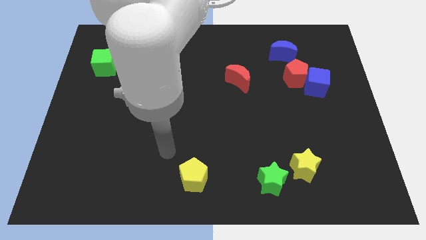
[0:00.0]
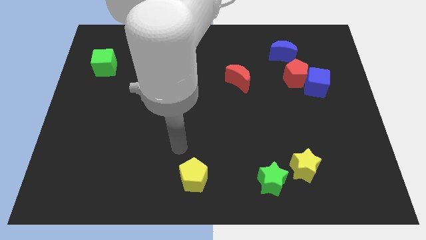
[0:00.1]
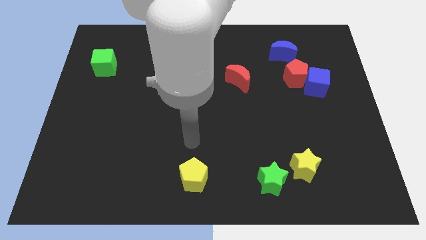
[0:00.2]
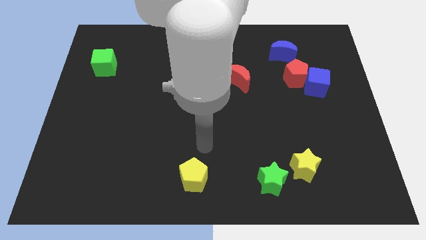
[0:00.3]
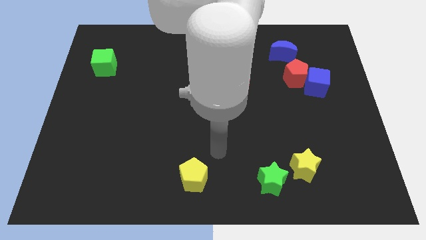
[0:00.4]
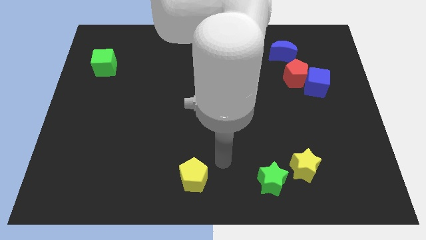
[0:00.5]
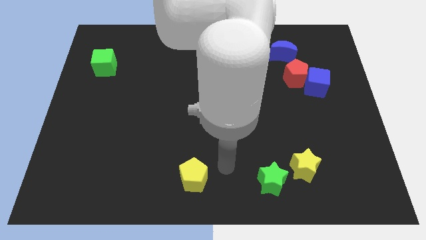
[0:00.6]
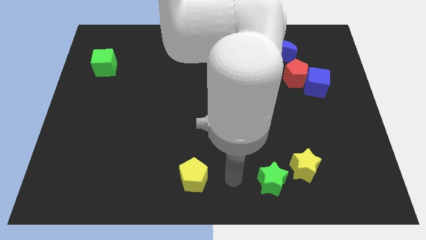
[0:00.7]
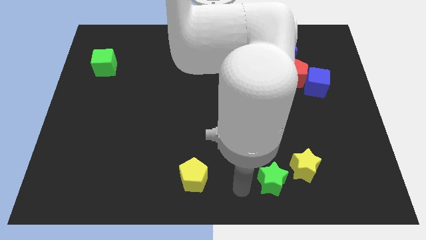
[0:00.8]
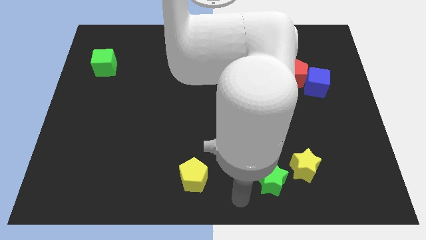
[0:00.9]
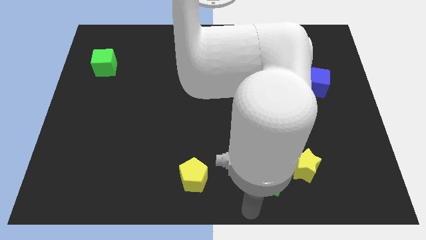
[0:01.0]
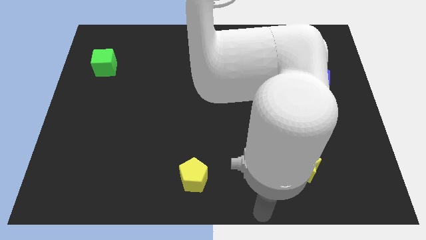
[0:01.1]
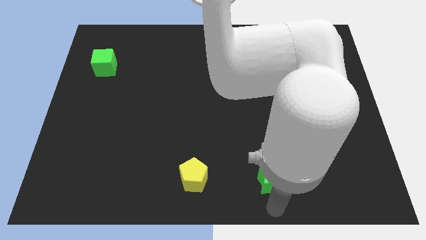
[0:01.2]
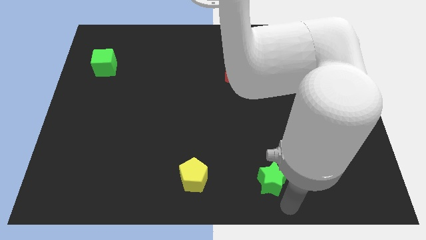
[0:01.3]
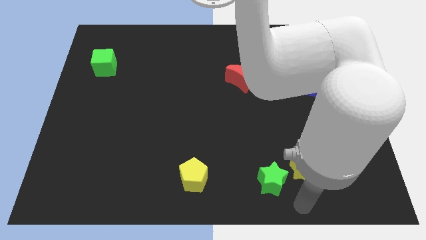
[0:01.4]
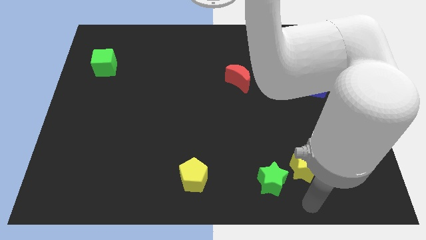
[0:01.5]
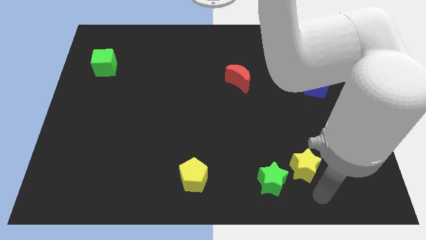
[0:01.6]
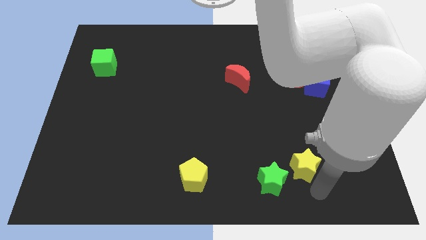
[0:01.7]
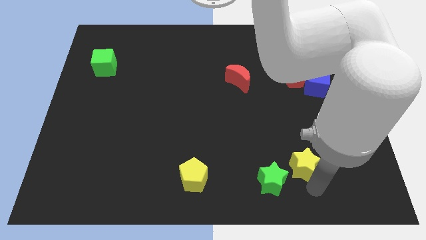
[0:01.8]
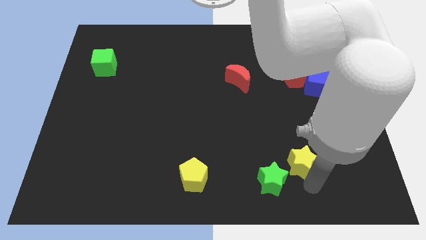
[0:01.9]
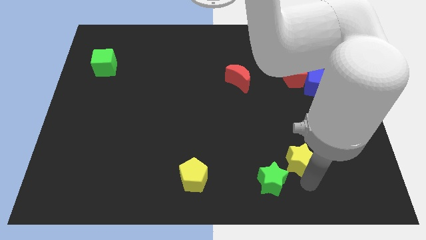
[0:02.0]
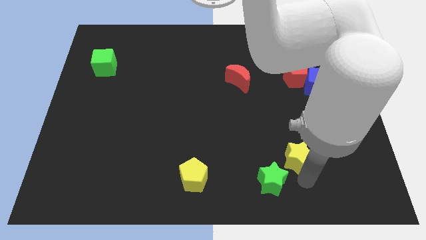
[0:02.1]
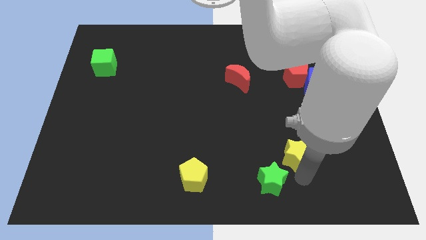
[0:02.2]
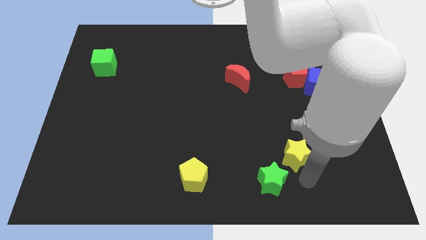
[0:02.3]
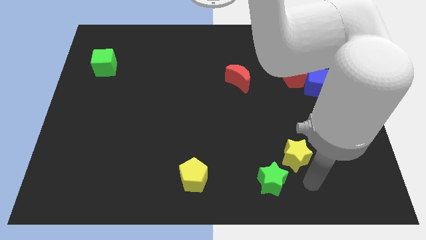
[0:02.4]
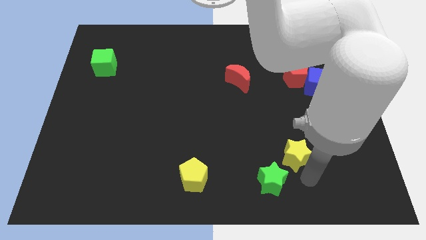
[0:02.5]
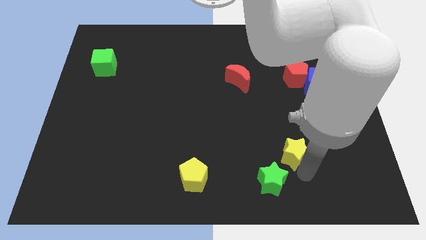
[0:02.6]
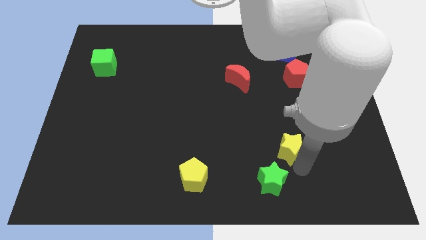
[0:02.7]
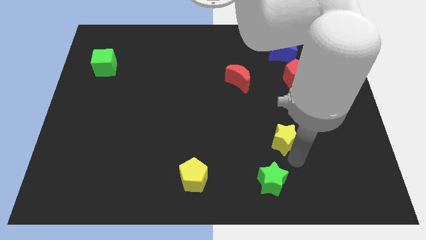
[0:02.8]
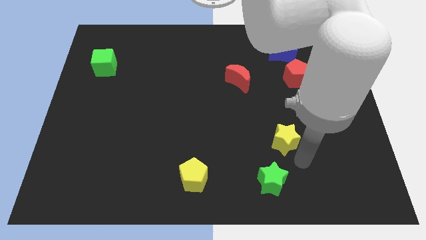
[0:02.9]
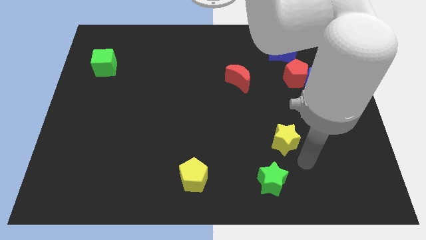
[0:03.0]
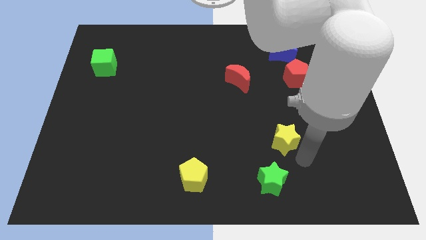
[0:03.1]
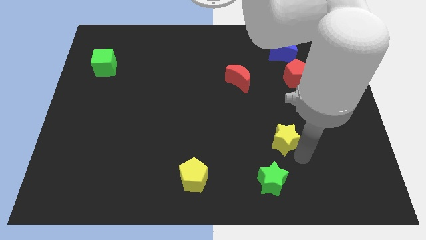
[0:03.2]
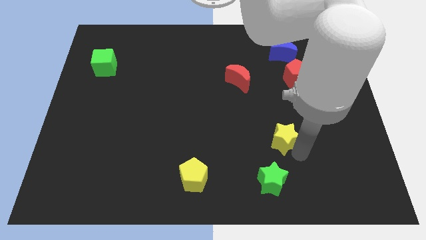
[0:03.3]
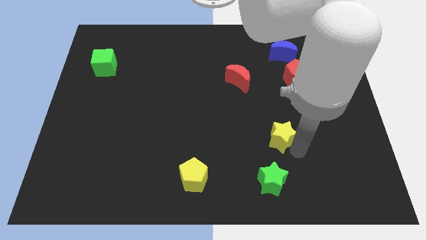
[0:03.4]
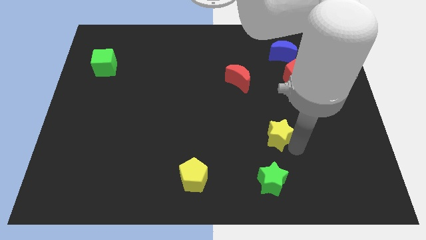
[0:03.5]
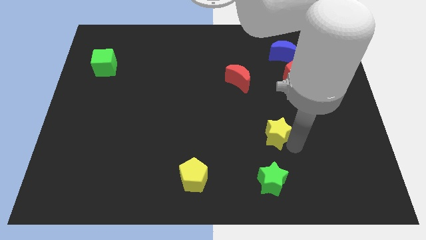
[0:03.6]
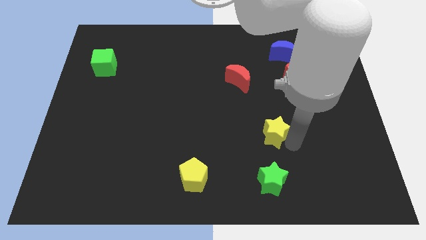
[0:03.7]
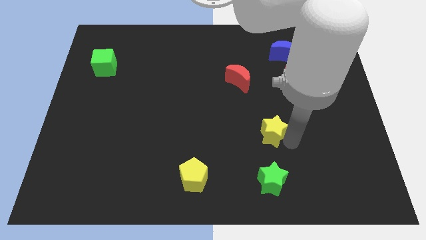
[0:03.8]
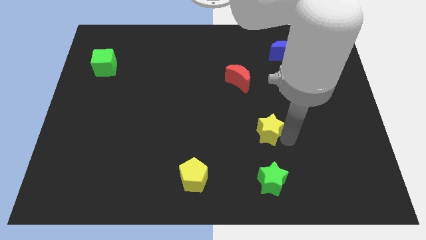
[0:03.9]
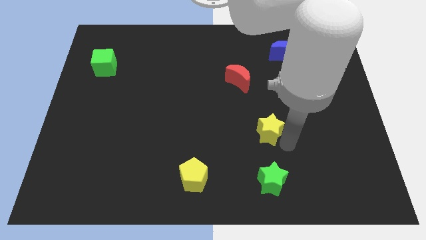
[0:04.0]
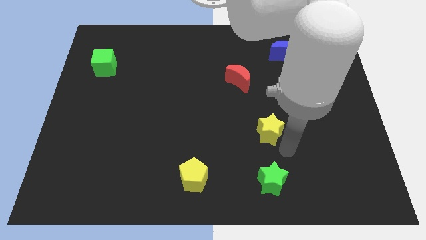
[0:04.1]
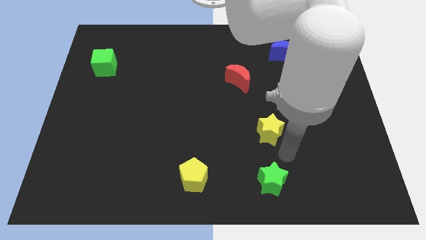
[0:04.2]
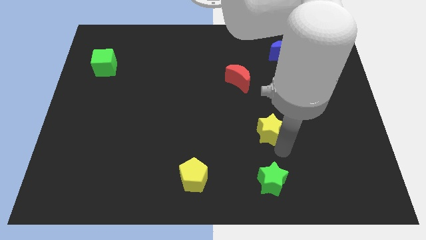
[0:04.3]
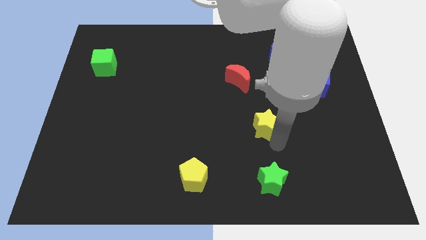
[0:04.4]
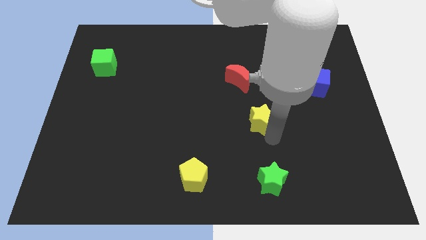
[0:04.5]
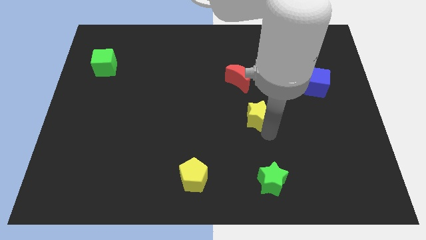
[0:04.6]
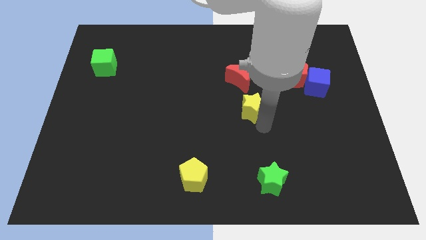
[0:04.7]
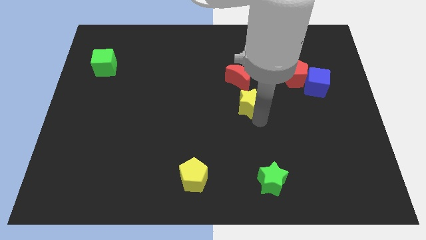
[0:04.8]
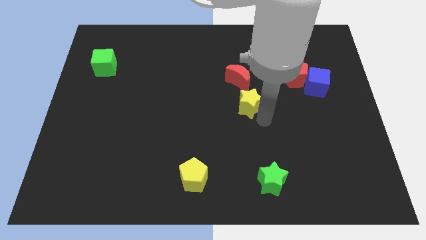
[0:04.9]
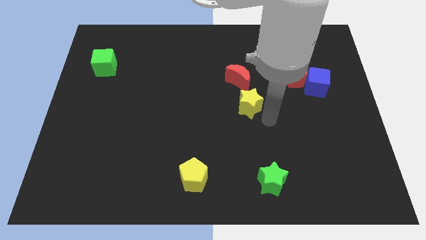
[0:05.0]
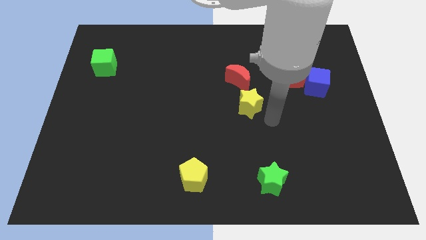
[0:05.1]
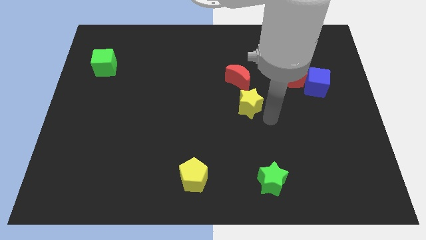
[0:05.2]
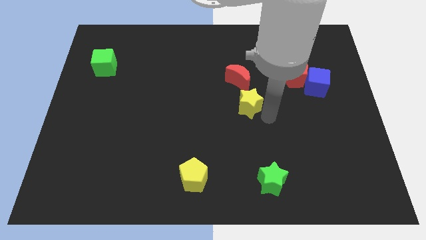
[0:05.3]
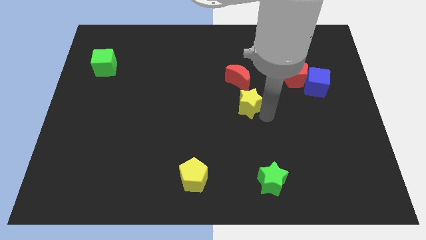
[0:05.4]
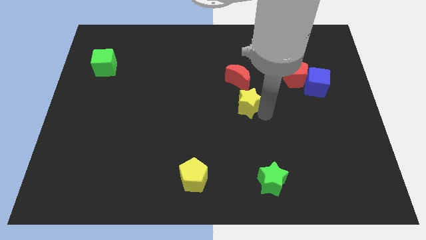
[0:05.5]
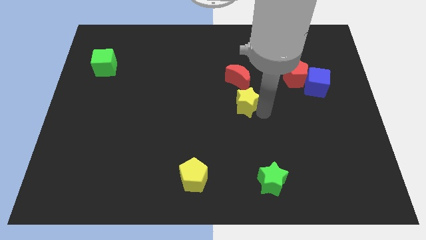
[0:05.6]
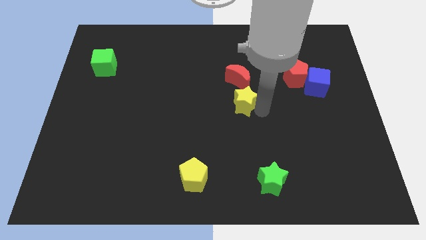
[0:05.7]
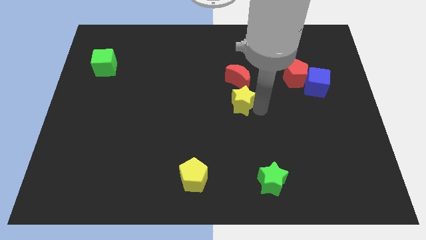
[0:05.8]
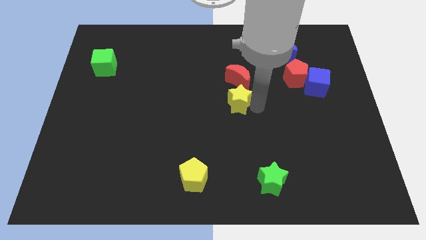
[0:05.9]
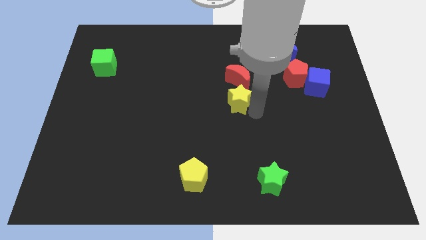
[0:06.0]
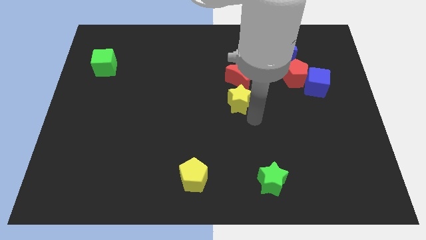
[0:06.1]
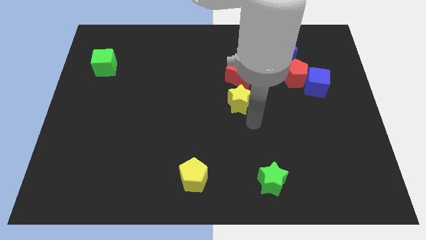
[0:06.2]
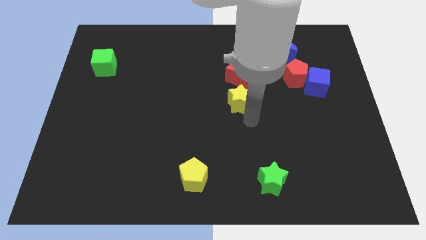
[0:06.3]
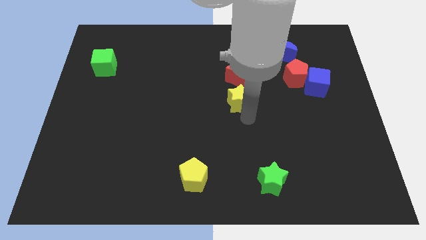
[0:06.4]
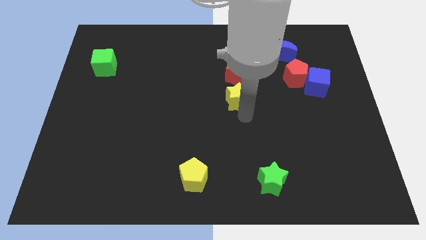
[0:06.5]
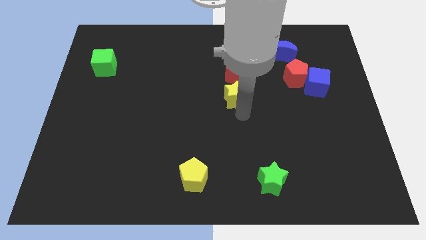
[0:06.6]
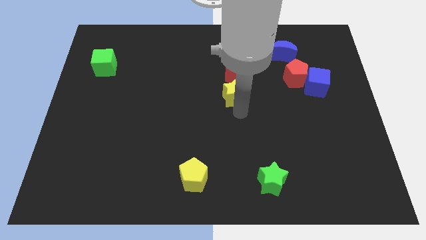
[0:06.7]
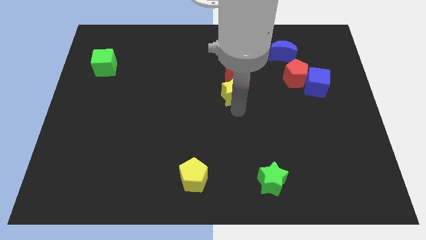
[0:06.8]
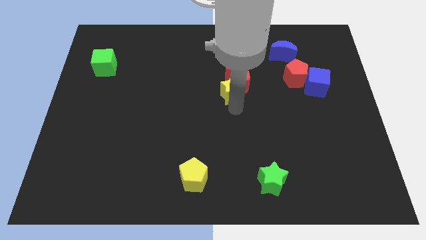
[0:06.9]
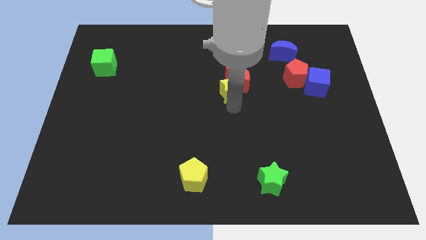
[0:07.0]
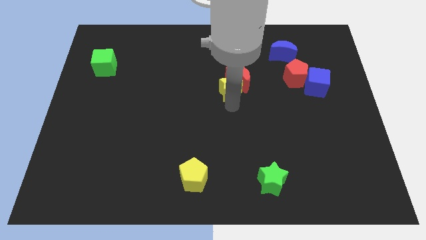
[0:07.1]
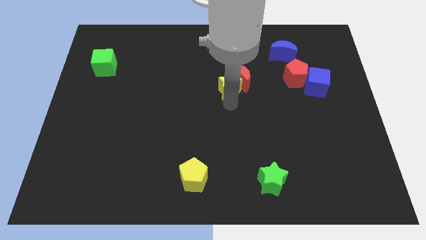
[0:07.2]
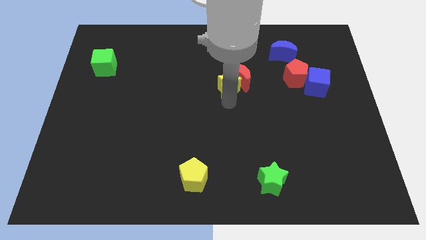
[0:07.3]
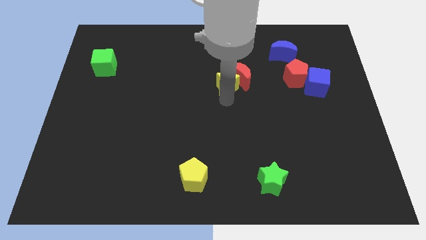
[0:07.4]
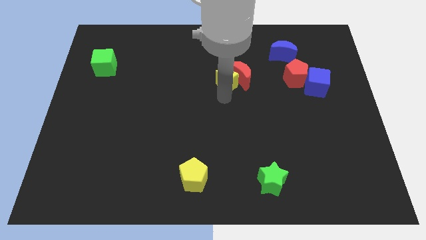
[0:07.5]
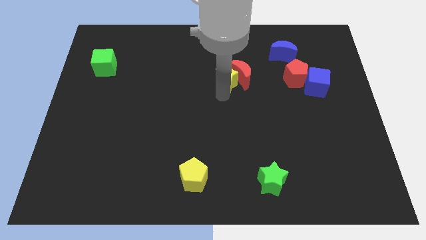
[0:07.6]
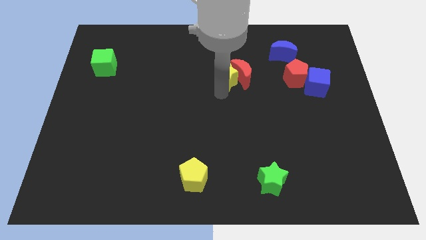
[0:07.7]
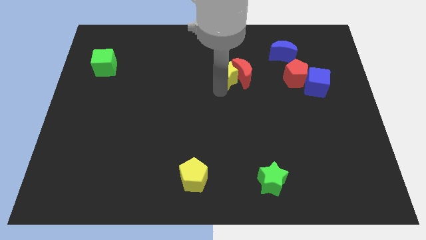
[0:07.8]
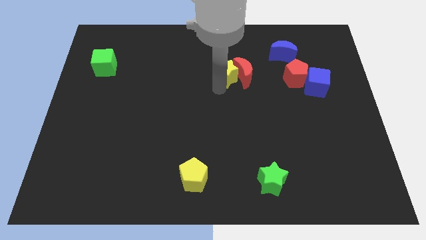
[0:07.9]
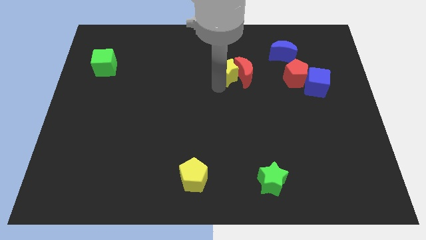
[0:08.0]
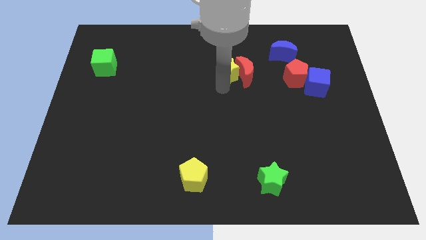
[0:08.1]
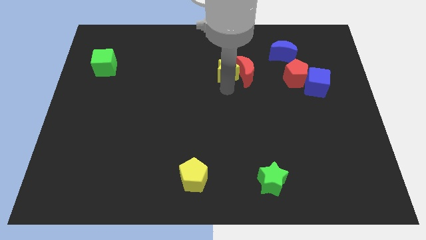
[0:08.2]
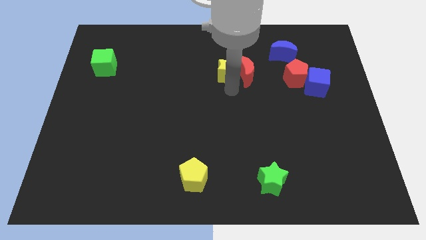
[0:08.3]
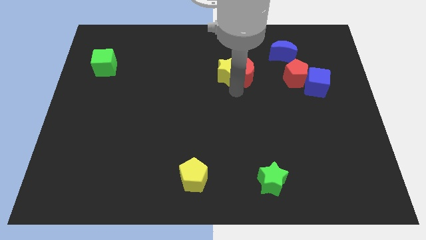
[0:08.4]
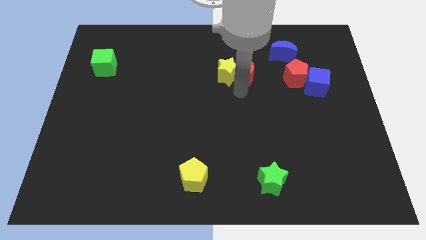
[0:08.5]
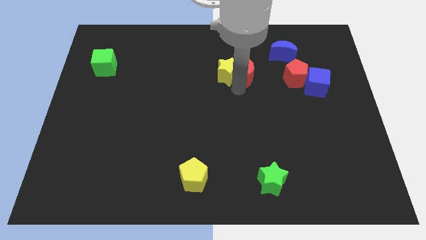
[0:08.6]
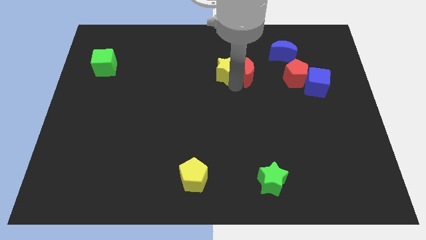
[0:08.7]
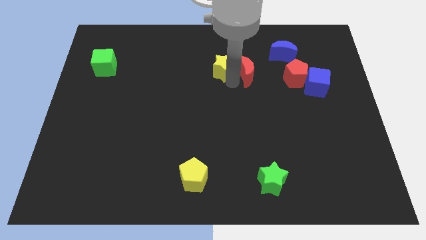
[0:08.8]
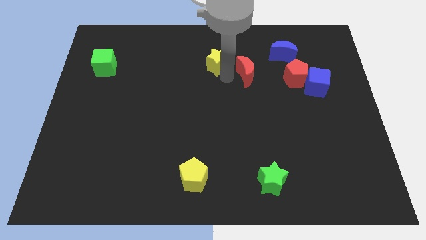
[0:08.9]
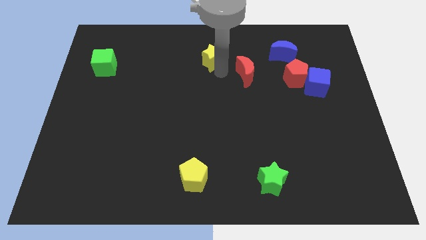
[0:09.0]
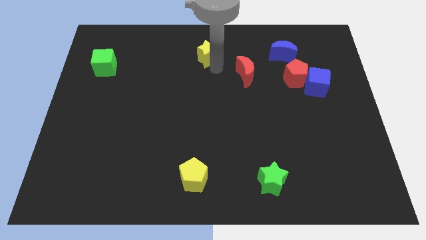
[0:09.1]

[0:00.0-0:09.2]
move the yellow star to the top side
